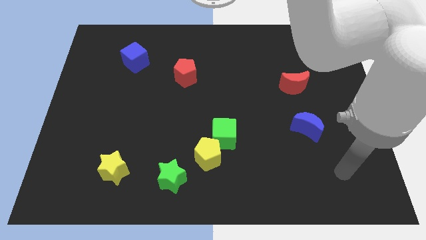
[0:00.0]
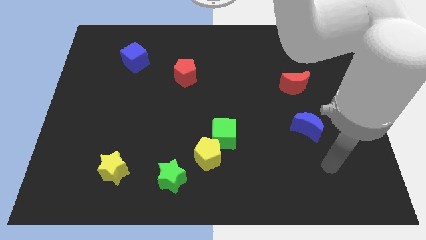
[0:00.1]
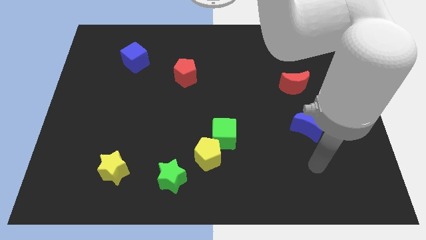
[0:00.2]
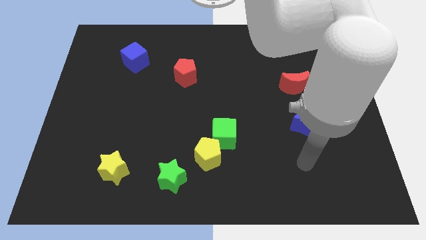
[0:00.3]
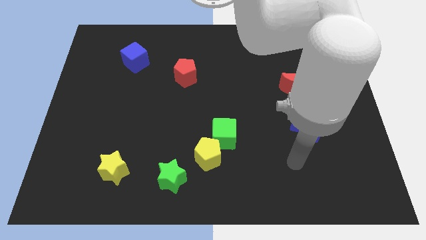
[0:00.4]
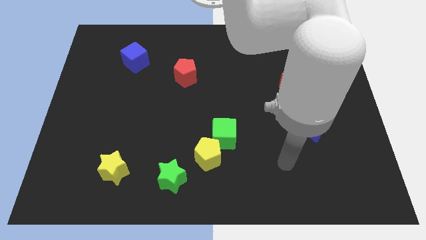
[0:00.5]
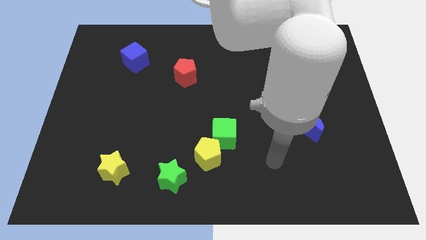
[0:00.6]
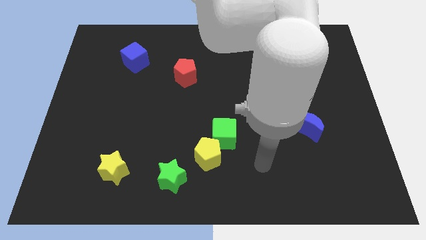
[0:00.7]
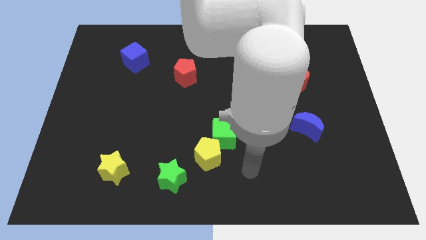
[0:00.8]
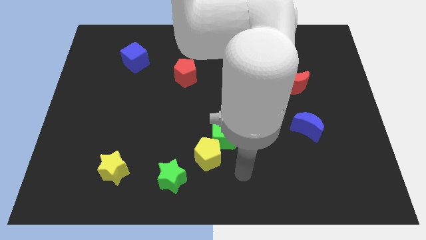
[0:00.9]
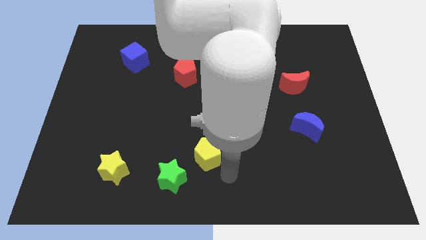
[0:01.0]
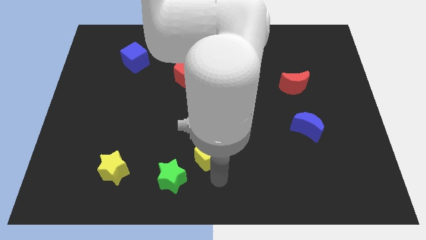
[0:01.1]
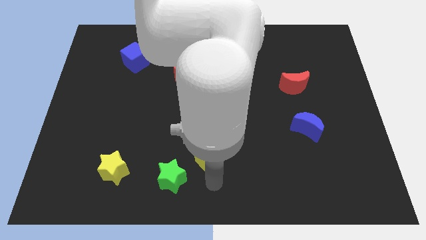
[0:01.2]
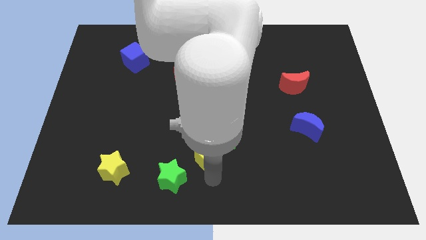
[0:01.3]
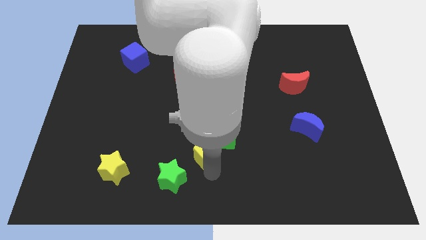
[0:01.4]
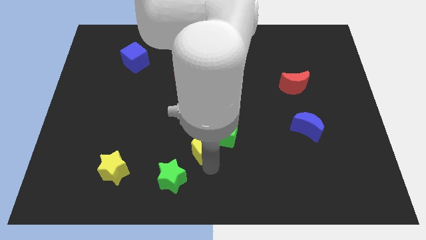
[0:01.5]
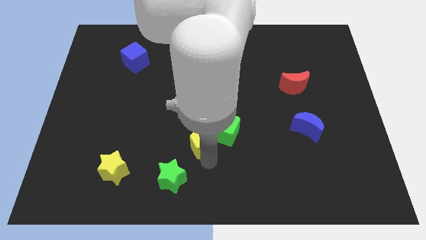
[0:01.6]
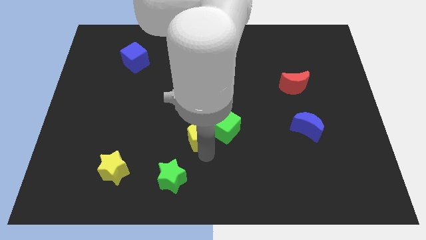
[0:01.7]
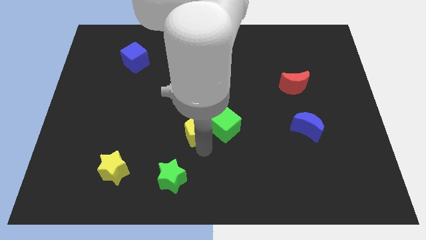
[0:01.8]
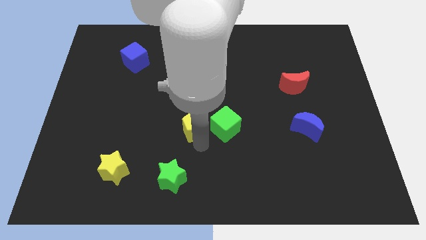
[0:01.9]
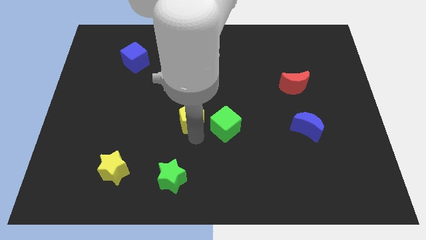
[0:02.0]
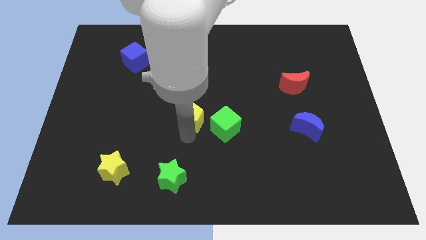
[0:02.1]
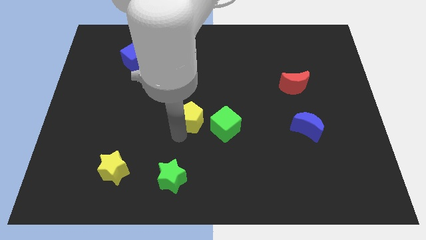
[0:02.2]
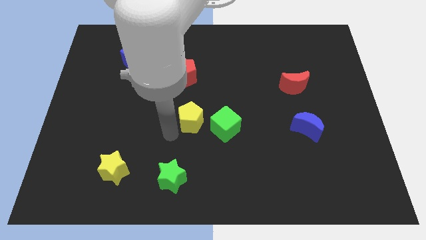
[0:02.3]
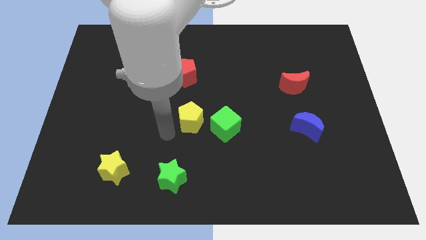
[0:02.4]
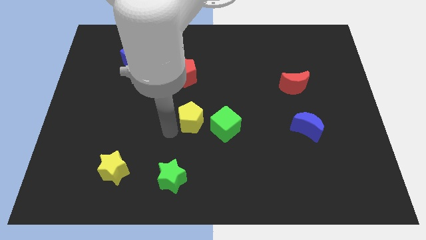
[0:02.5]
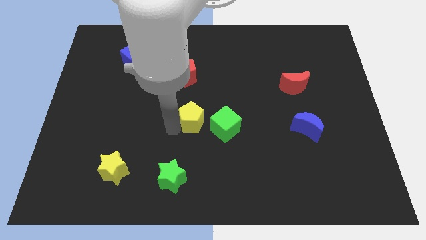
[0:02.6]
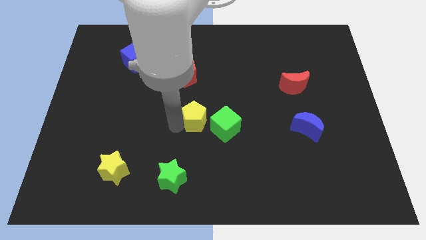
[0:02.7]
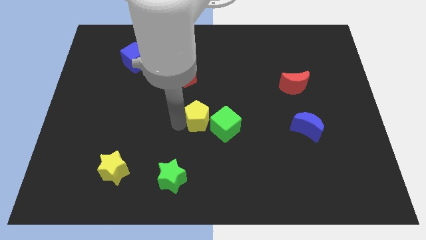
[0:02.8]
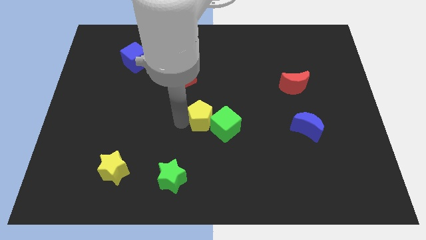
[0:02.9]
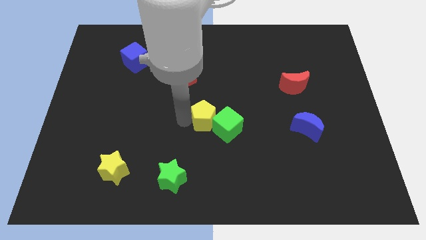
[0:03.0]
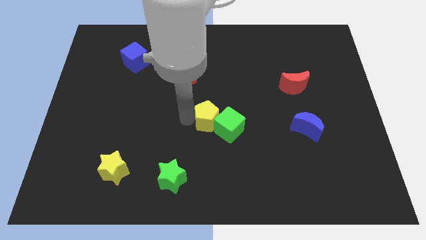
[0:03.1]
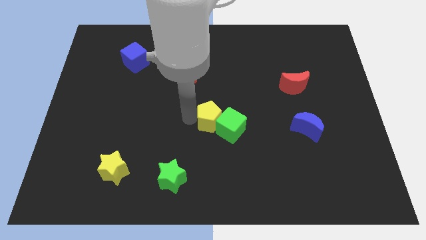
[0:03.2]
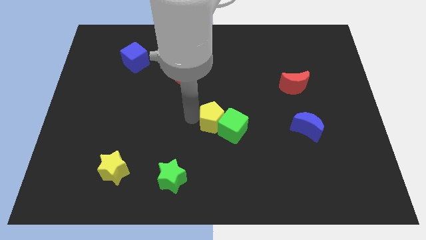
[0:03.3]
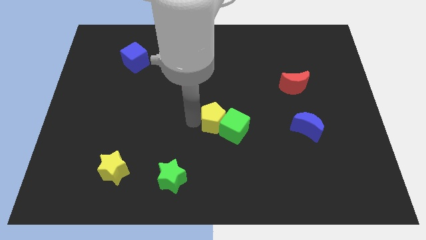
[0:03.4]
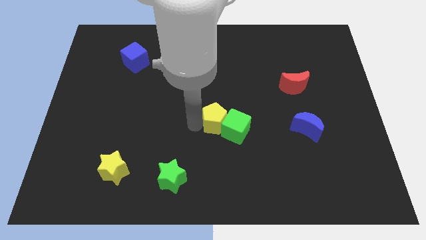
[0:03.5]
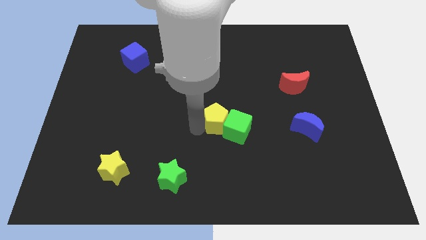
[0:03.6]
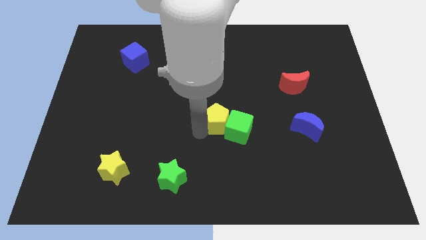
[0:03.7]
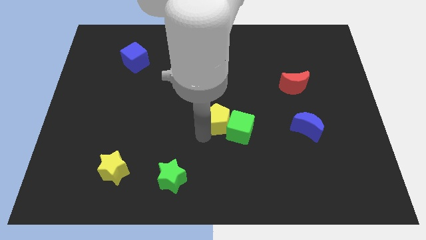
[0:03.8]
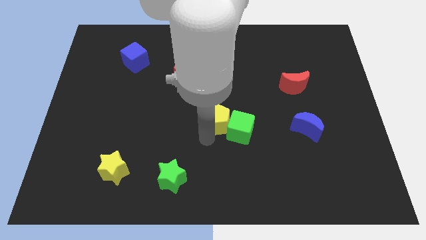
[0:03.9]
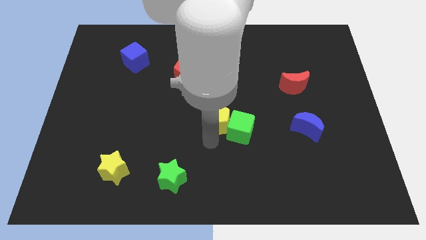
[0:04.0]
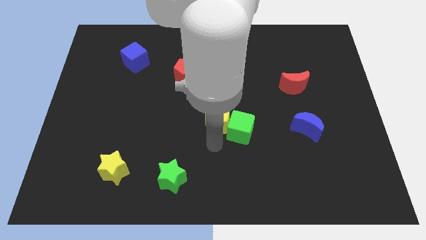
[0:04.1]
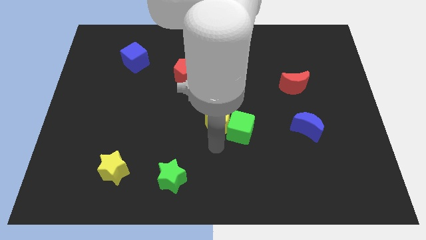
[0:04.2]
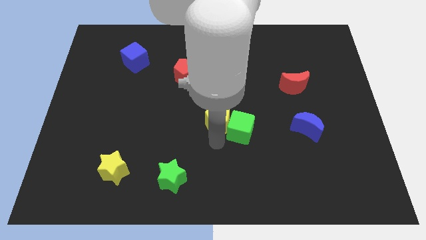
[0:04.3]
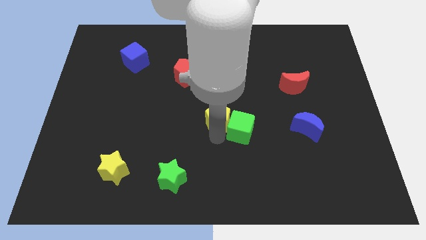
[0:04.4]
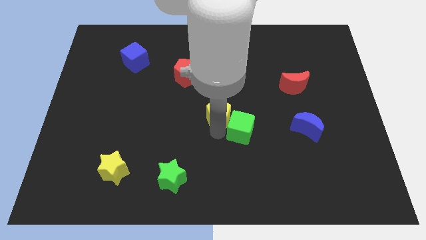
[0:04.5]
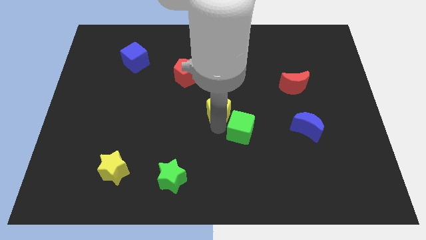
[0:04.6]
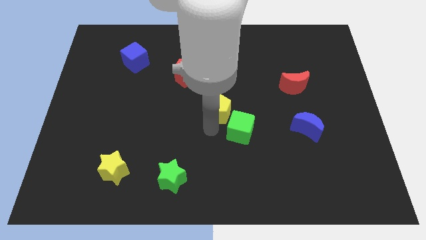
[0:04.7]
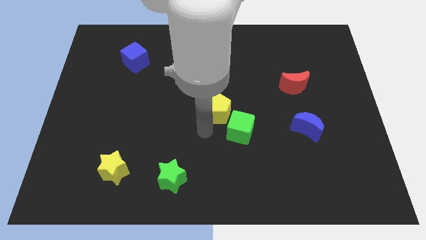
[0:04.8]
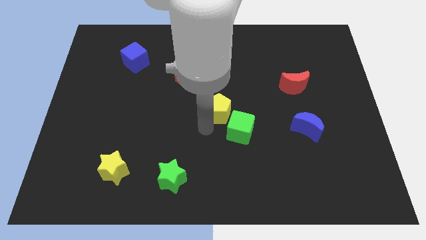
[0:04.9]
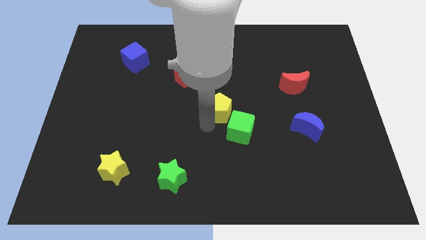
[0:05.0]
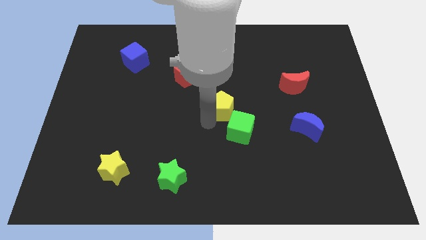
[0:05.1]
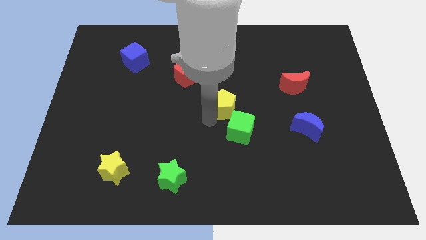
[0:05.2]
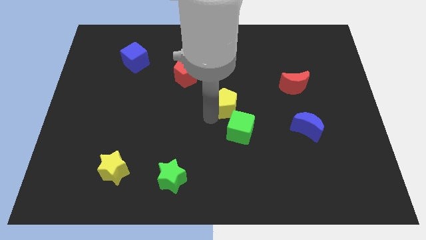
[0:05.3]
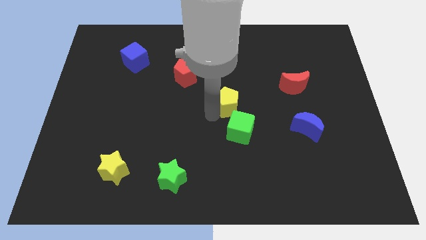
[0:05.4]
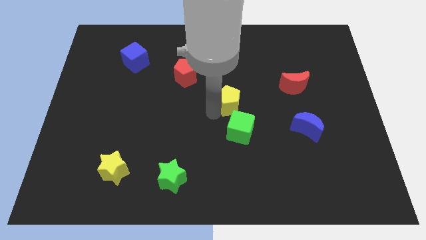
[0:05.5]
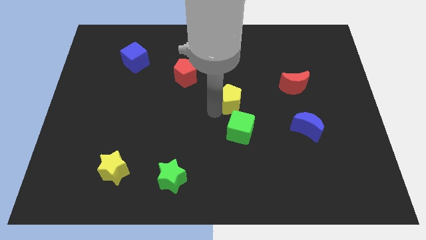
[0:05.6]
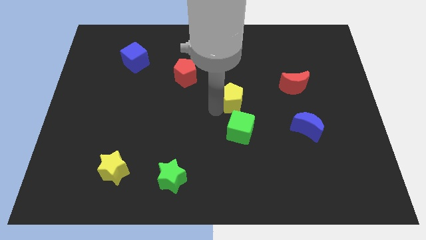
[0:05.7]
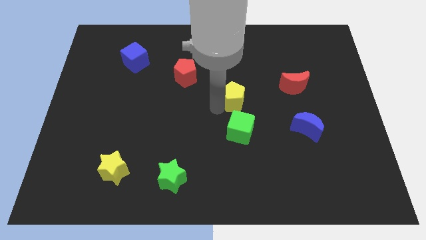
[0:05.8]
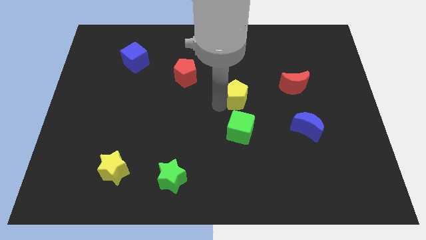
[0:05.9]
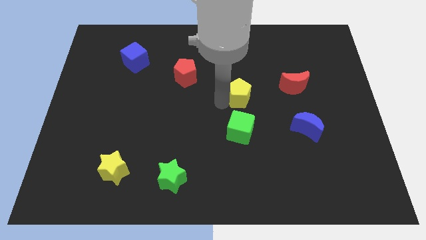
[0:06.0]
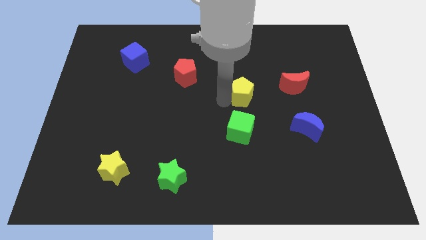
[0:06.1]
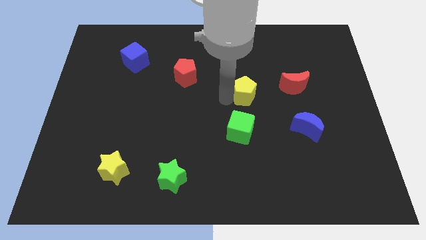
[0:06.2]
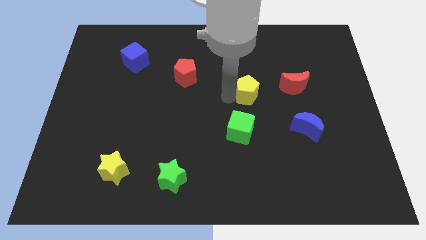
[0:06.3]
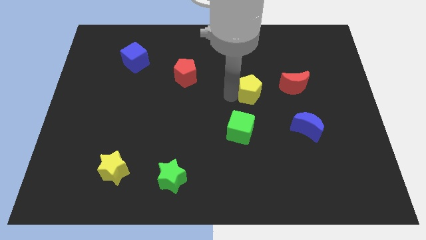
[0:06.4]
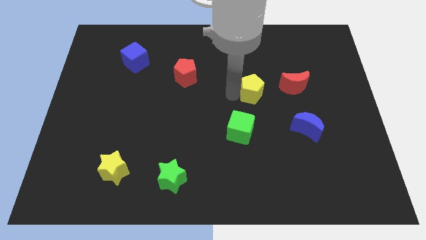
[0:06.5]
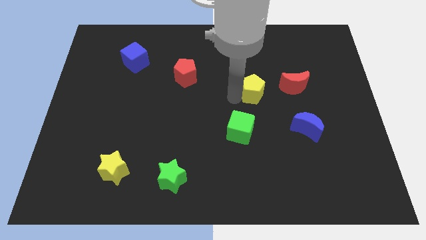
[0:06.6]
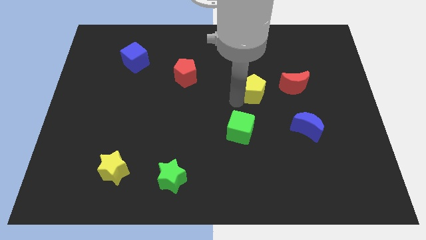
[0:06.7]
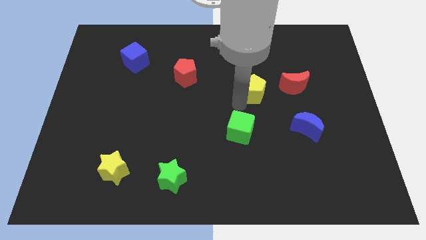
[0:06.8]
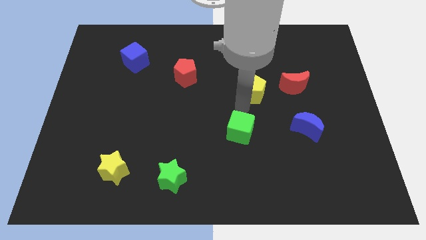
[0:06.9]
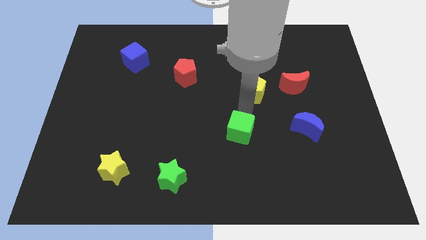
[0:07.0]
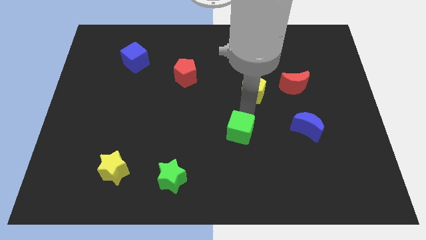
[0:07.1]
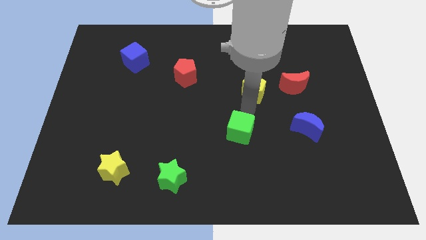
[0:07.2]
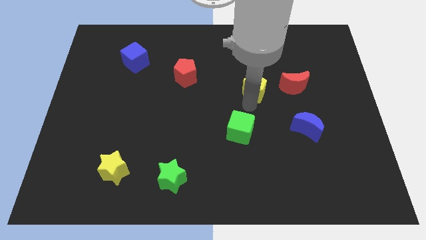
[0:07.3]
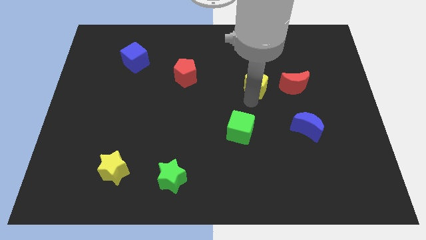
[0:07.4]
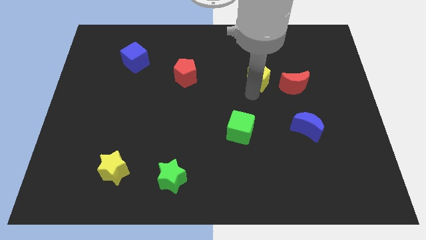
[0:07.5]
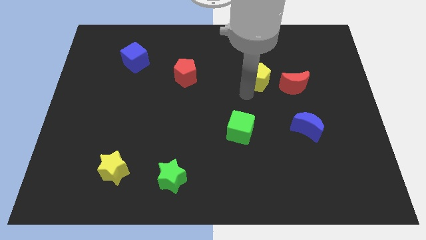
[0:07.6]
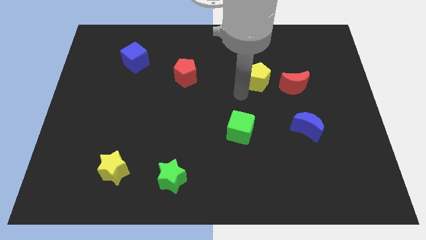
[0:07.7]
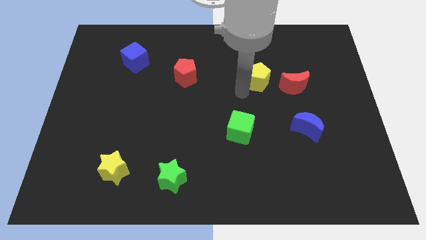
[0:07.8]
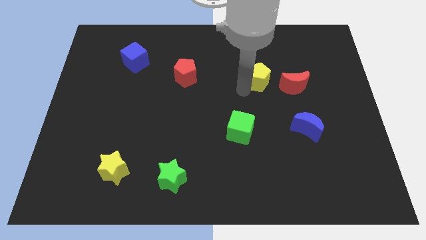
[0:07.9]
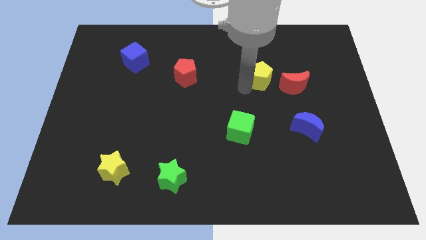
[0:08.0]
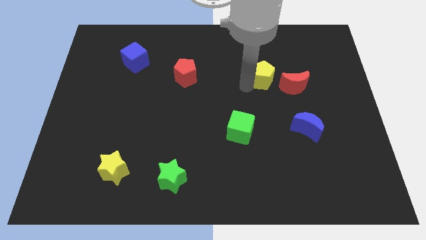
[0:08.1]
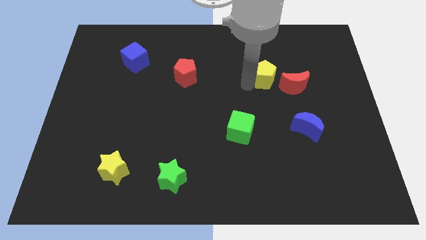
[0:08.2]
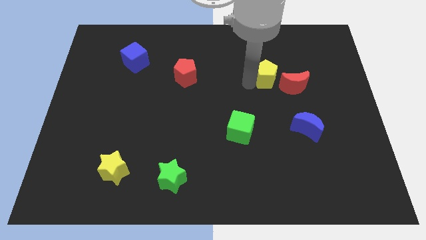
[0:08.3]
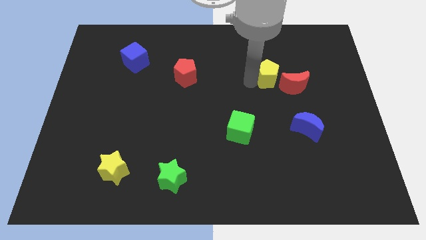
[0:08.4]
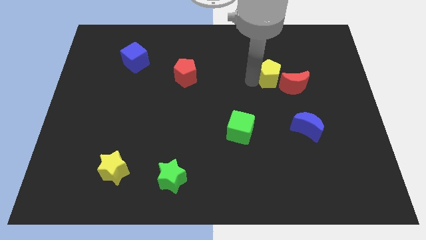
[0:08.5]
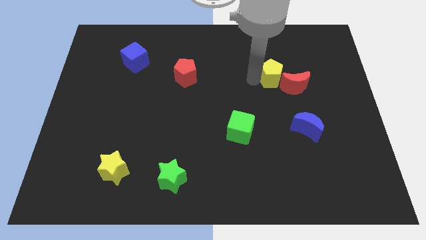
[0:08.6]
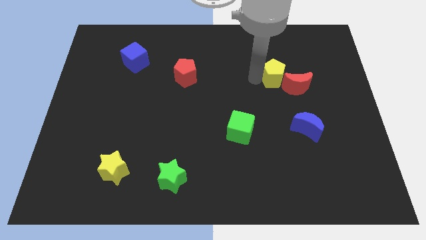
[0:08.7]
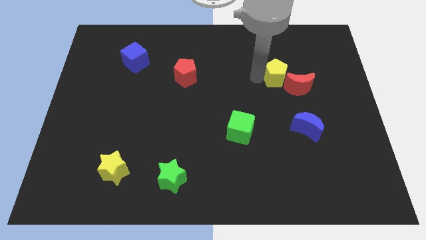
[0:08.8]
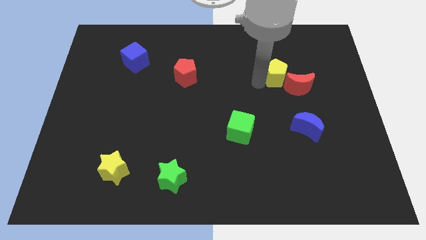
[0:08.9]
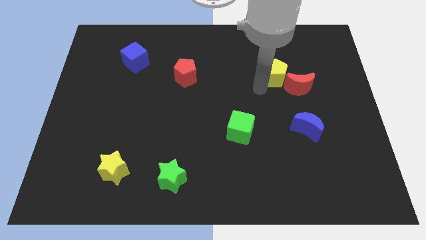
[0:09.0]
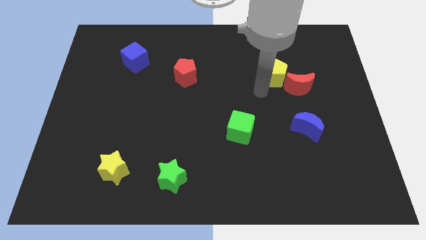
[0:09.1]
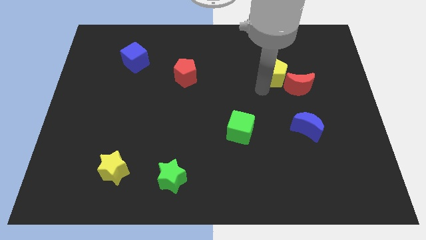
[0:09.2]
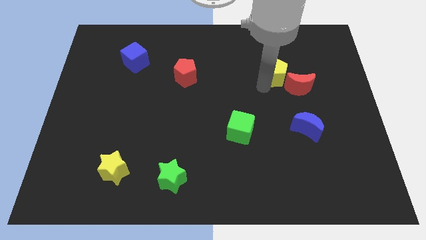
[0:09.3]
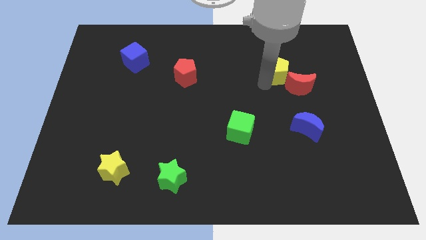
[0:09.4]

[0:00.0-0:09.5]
move the yellow pentagon above the red moon
